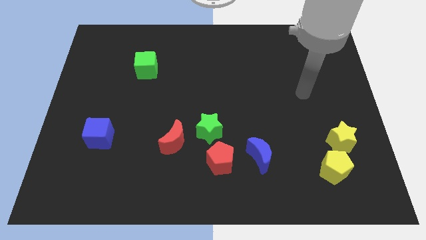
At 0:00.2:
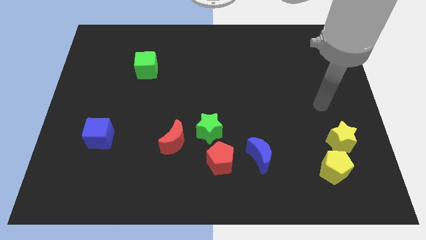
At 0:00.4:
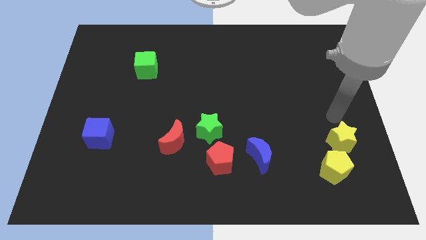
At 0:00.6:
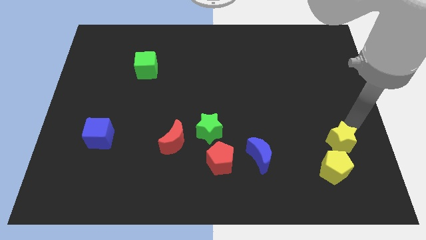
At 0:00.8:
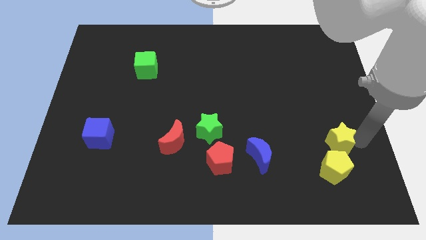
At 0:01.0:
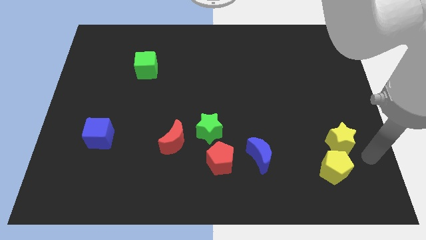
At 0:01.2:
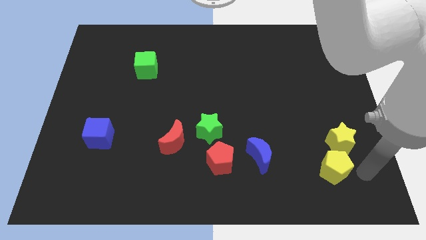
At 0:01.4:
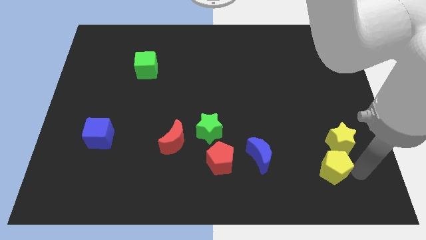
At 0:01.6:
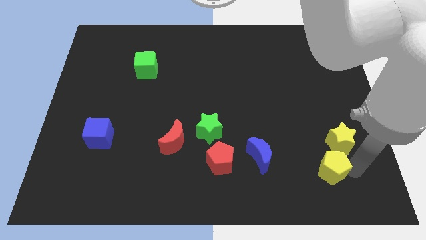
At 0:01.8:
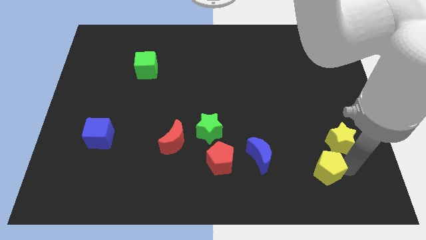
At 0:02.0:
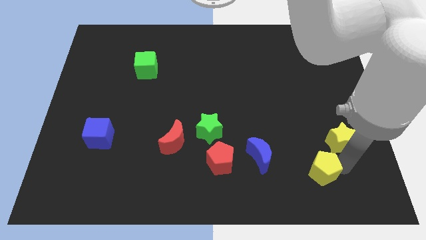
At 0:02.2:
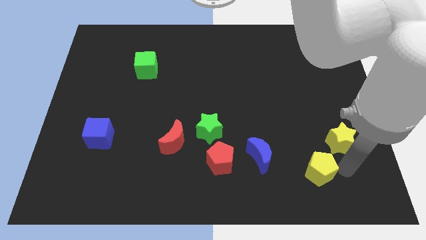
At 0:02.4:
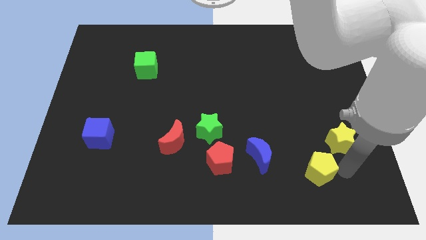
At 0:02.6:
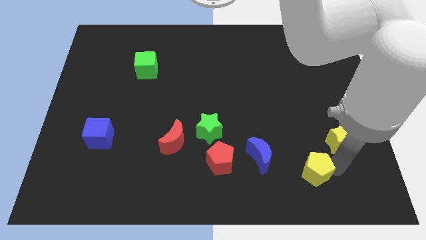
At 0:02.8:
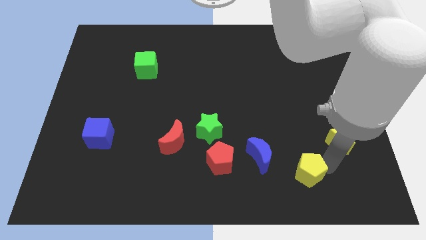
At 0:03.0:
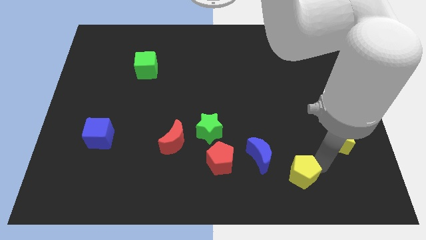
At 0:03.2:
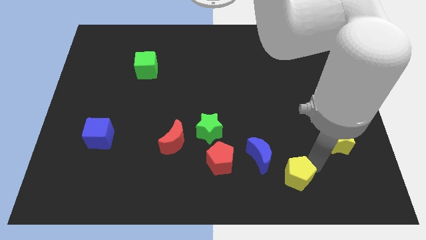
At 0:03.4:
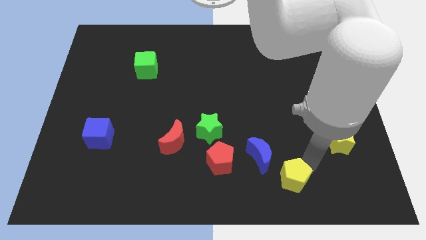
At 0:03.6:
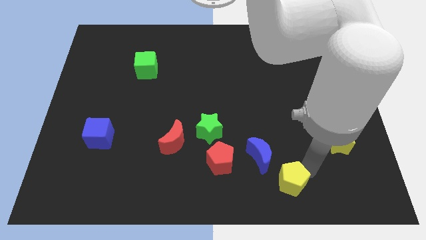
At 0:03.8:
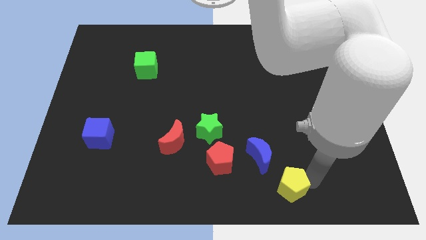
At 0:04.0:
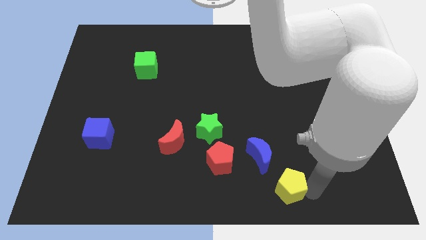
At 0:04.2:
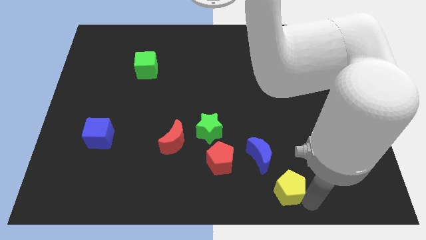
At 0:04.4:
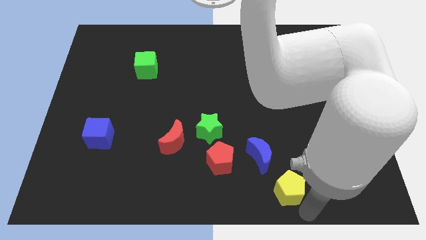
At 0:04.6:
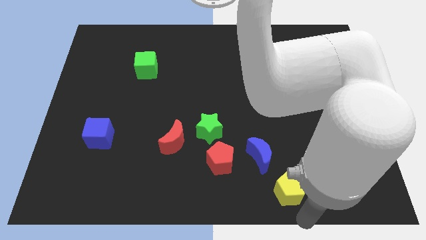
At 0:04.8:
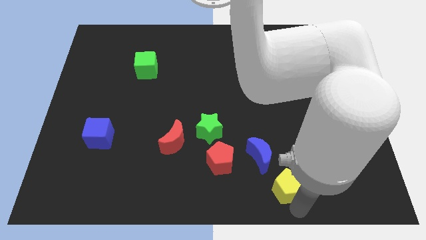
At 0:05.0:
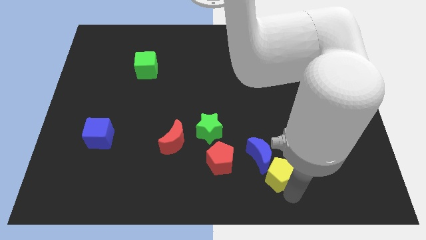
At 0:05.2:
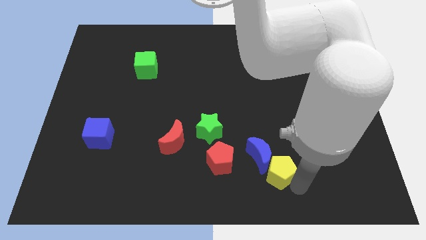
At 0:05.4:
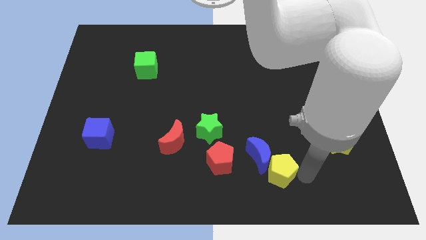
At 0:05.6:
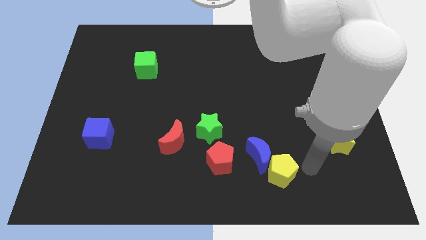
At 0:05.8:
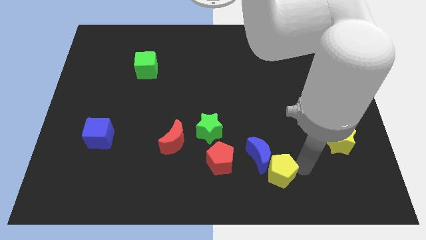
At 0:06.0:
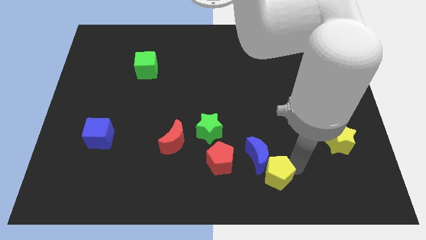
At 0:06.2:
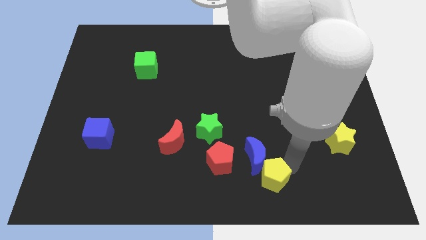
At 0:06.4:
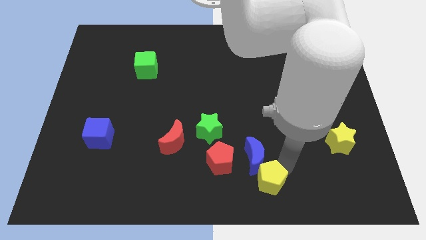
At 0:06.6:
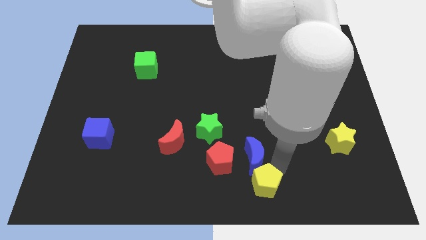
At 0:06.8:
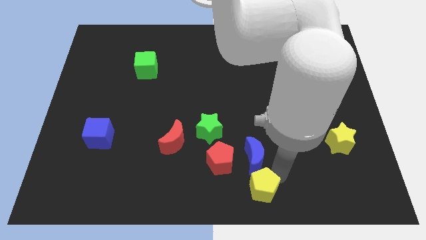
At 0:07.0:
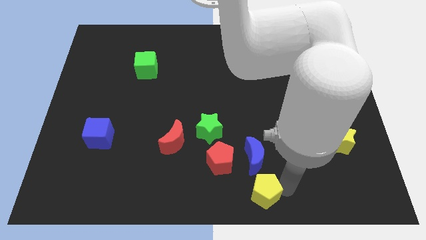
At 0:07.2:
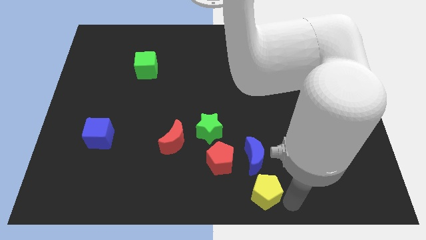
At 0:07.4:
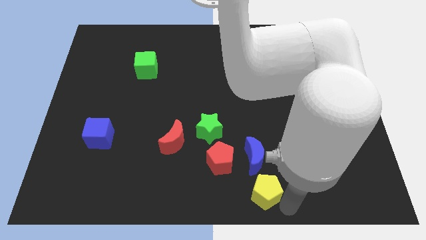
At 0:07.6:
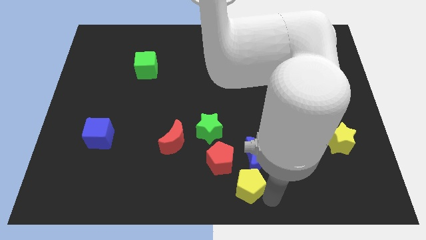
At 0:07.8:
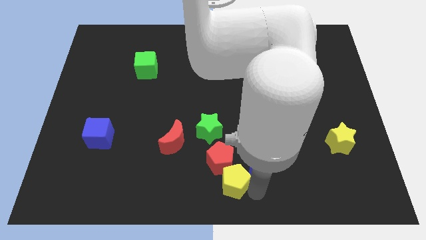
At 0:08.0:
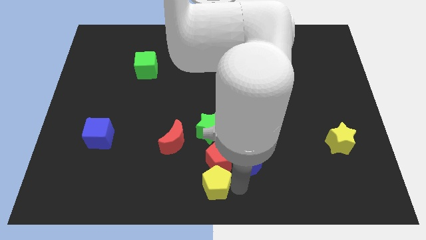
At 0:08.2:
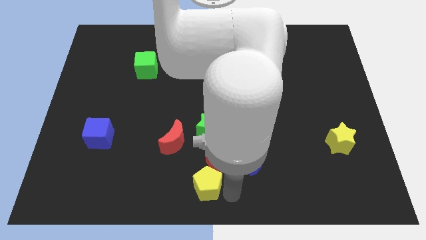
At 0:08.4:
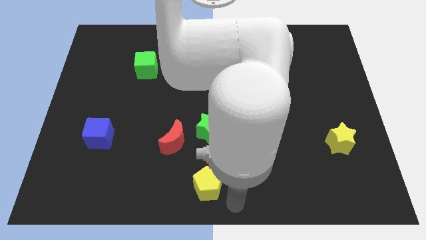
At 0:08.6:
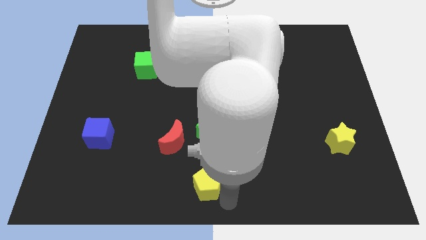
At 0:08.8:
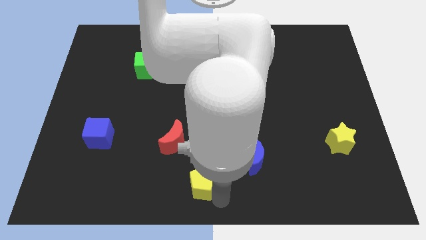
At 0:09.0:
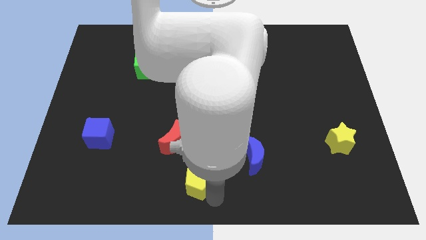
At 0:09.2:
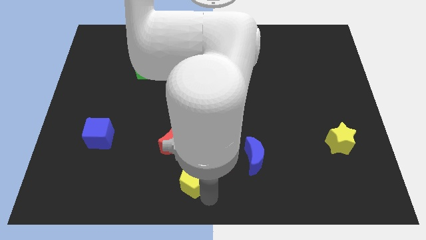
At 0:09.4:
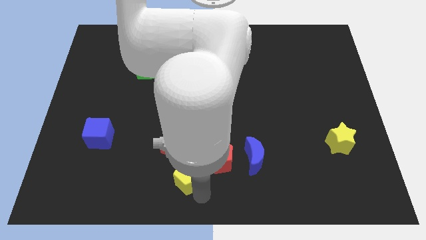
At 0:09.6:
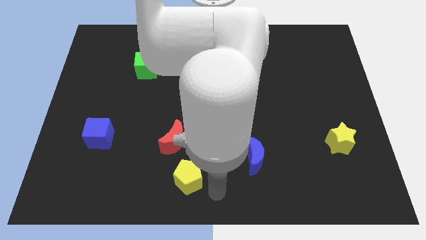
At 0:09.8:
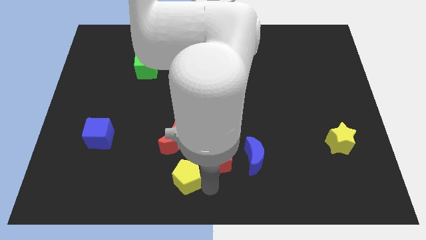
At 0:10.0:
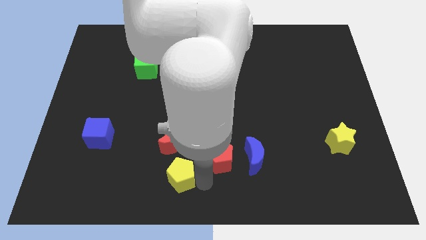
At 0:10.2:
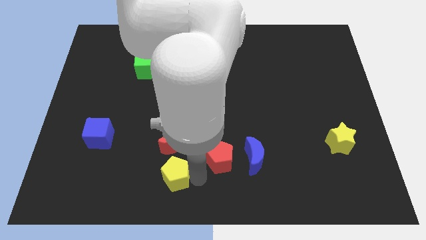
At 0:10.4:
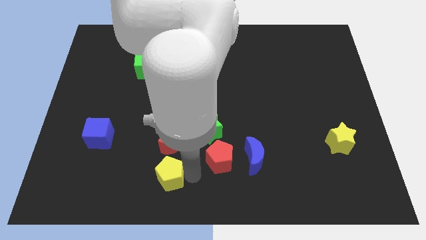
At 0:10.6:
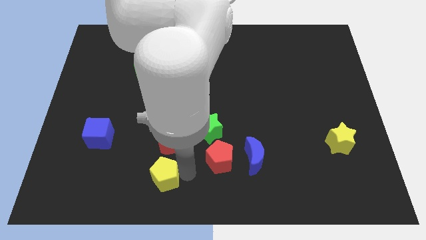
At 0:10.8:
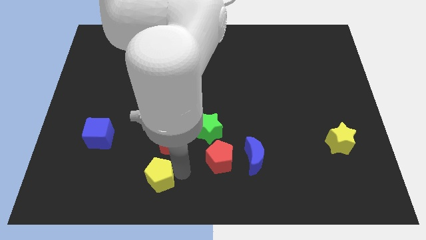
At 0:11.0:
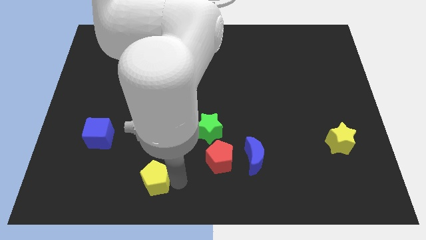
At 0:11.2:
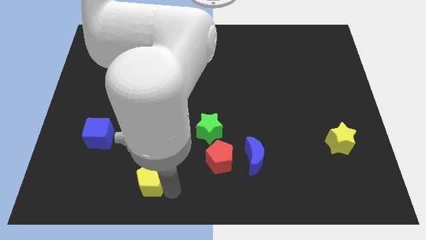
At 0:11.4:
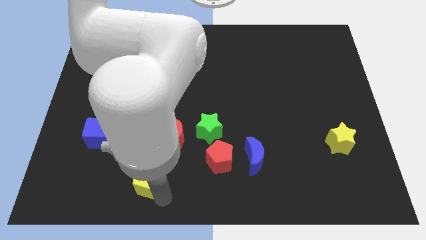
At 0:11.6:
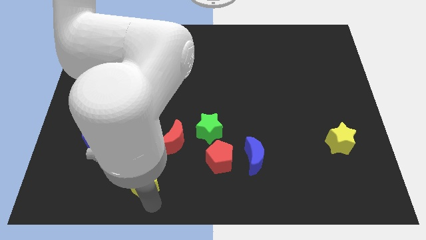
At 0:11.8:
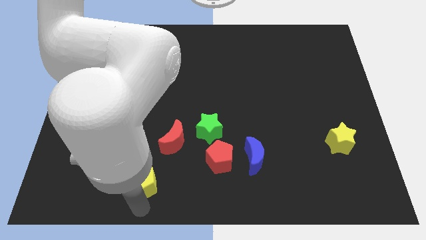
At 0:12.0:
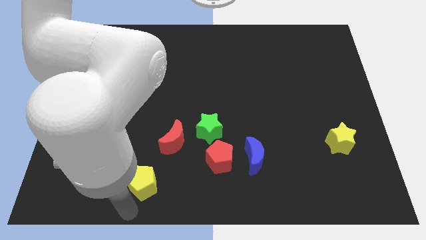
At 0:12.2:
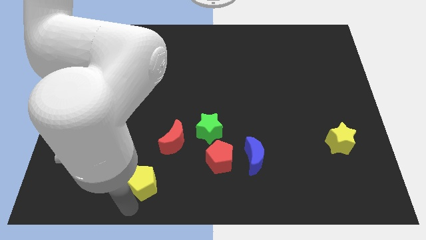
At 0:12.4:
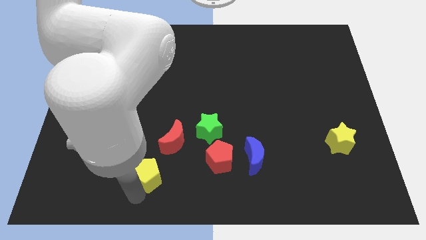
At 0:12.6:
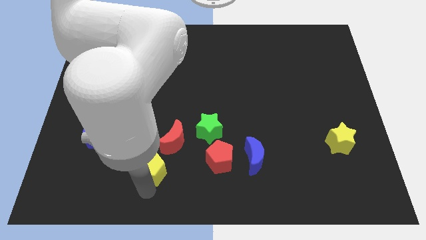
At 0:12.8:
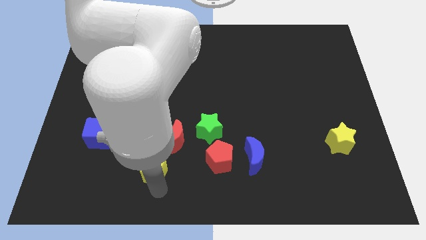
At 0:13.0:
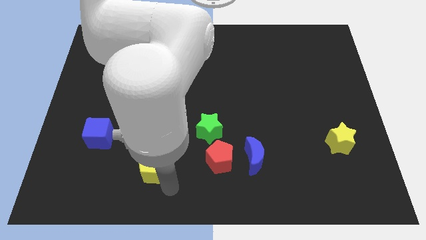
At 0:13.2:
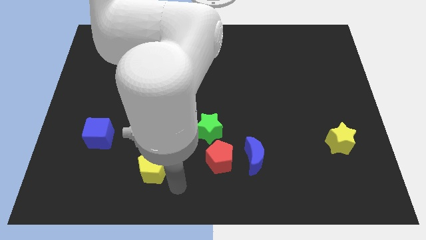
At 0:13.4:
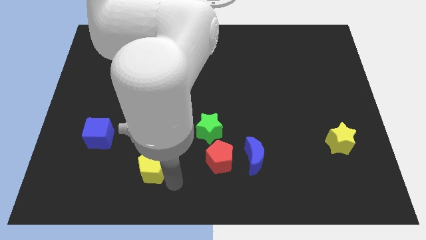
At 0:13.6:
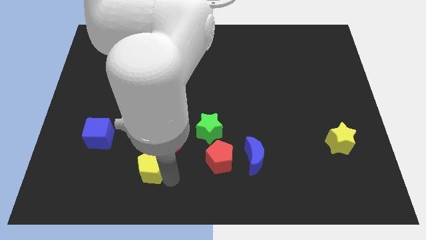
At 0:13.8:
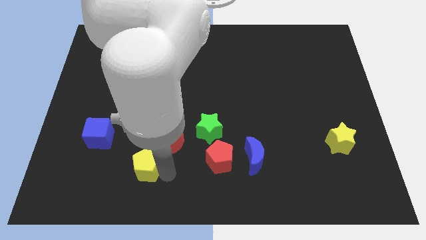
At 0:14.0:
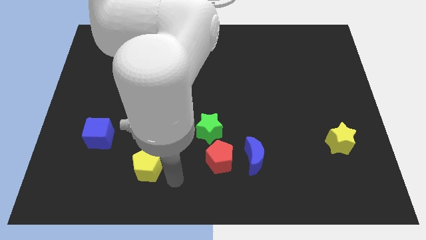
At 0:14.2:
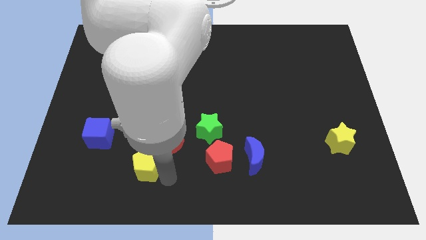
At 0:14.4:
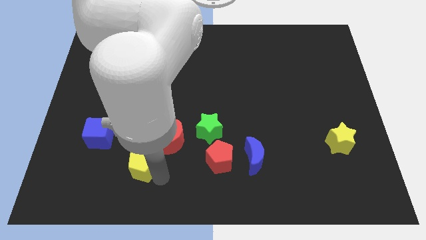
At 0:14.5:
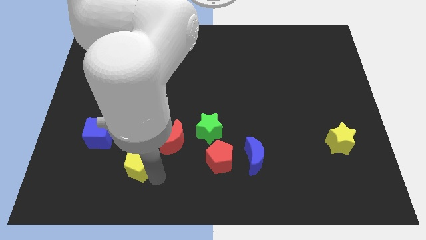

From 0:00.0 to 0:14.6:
put the yellow pentagon to the bottom right side of the blue cube

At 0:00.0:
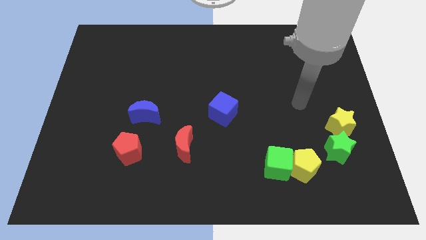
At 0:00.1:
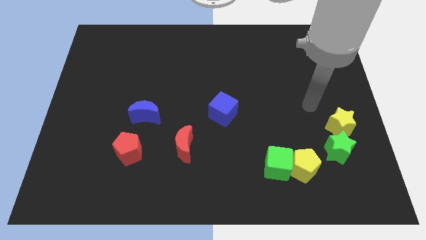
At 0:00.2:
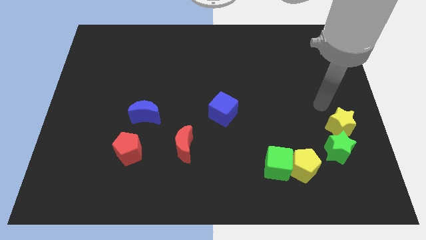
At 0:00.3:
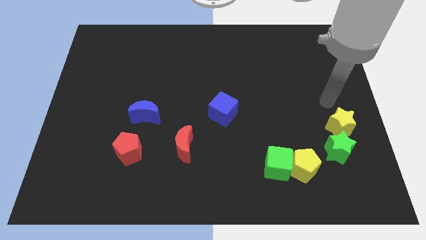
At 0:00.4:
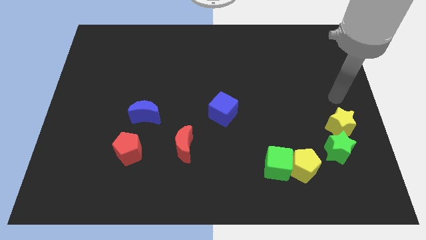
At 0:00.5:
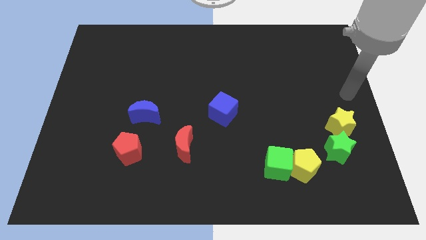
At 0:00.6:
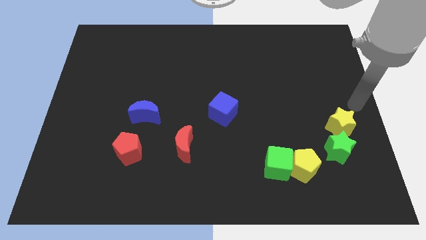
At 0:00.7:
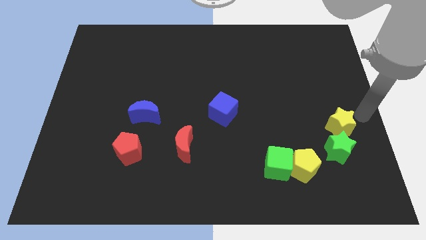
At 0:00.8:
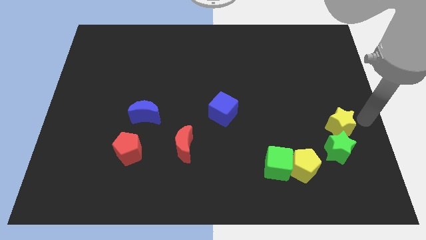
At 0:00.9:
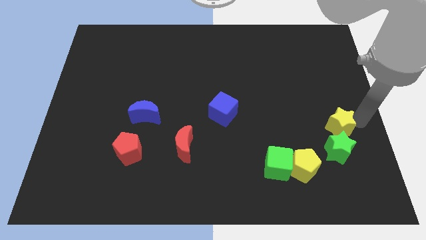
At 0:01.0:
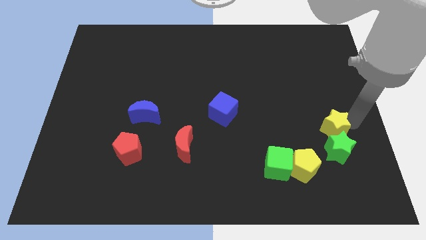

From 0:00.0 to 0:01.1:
put the yellow star diagonally up and to the left of the green star
